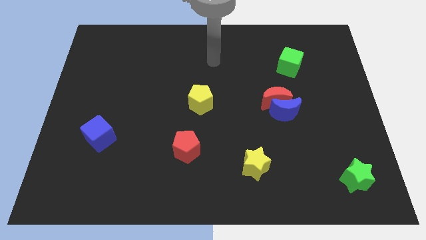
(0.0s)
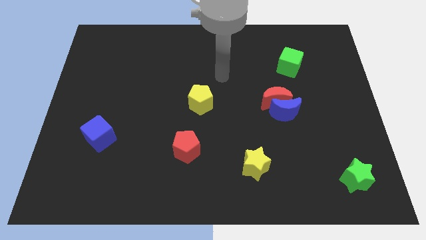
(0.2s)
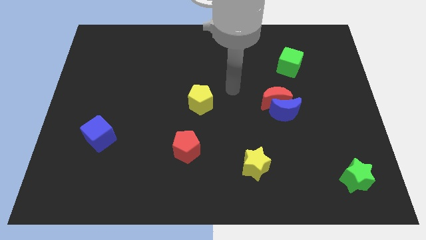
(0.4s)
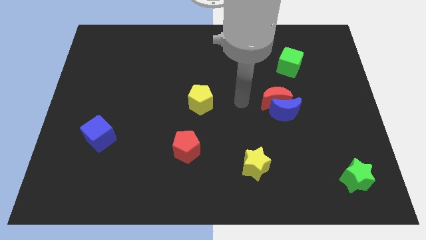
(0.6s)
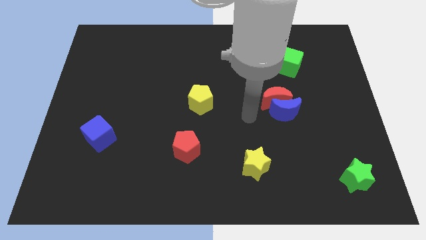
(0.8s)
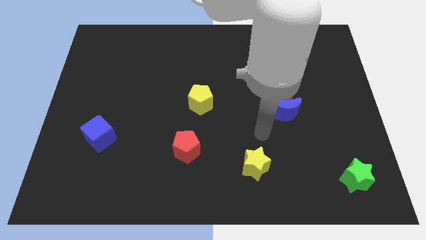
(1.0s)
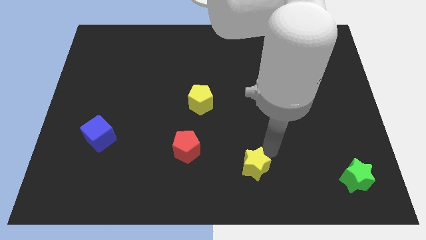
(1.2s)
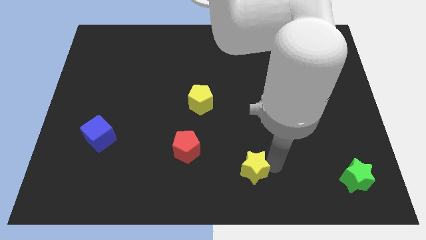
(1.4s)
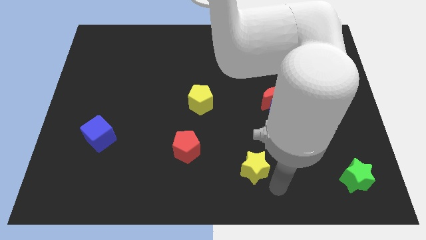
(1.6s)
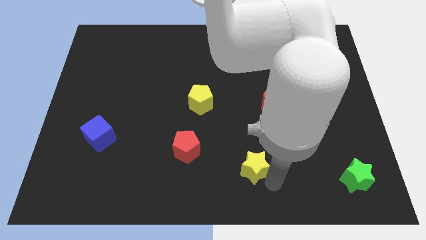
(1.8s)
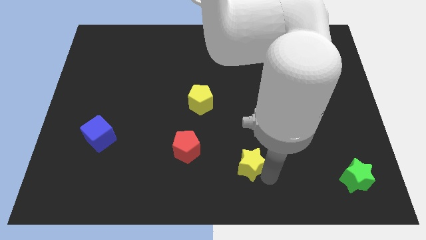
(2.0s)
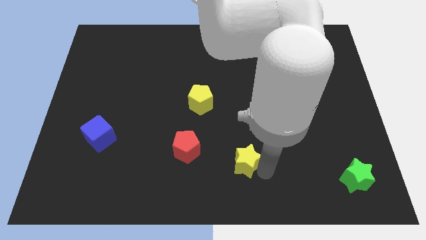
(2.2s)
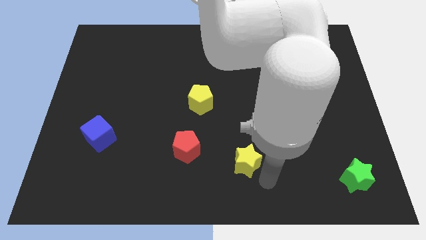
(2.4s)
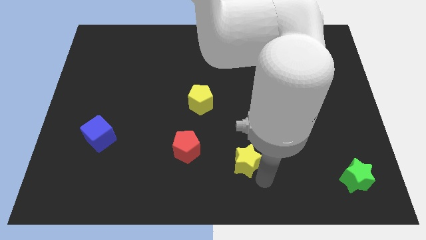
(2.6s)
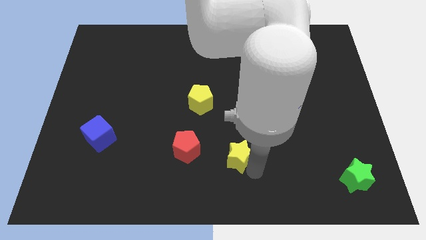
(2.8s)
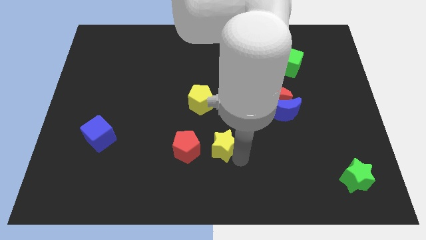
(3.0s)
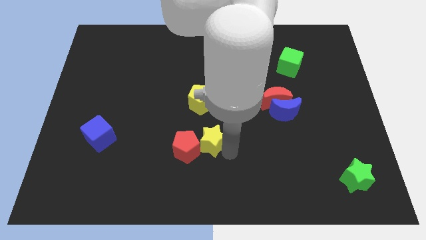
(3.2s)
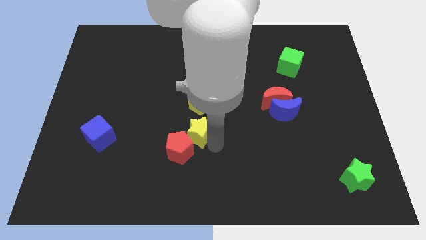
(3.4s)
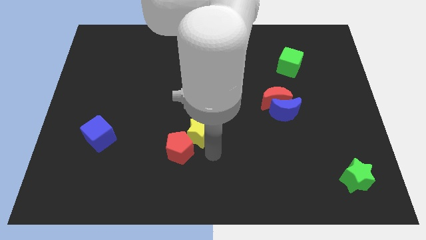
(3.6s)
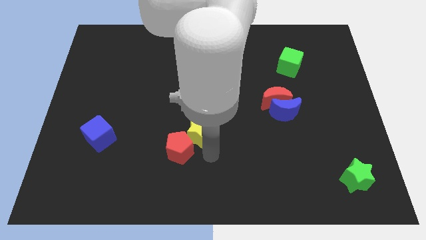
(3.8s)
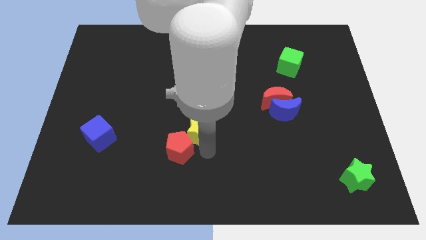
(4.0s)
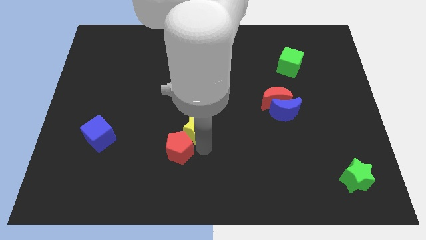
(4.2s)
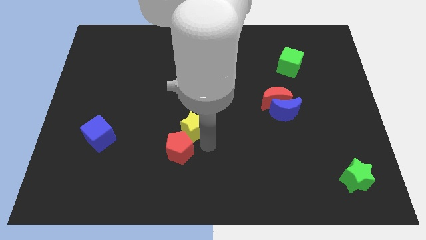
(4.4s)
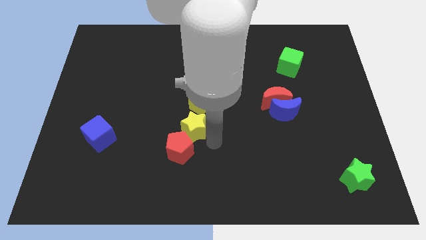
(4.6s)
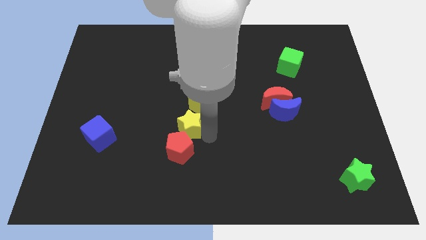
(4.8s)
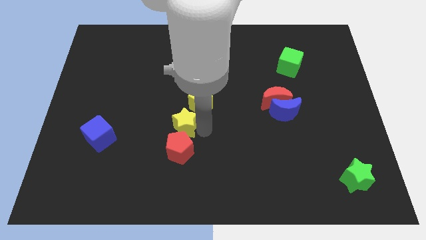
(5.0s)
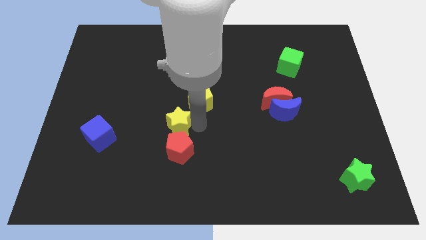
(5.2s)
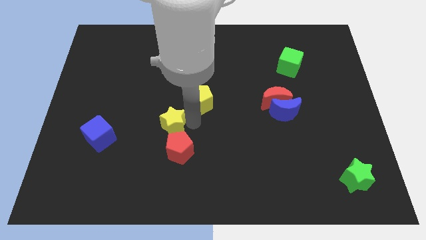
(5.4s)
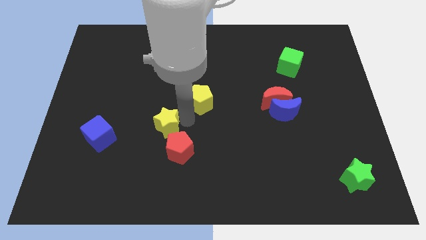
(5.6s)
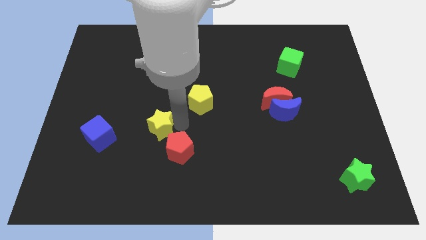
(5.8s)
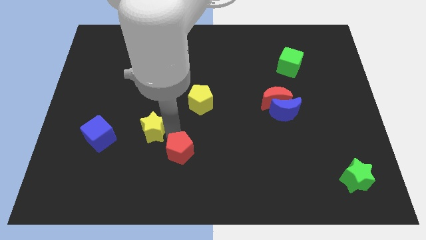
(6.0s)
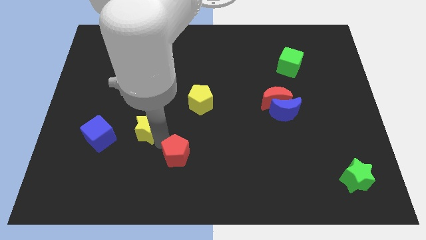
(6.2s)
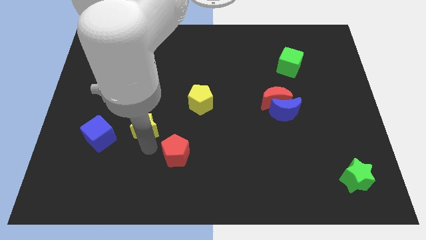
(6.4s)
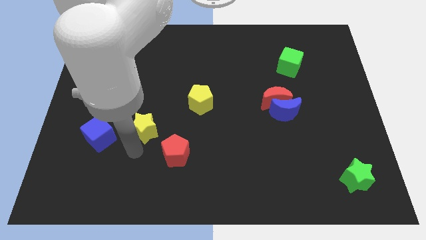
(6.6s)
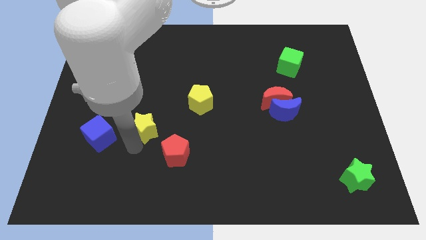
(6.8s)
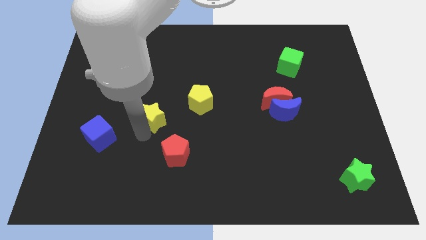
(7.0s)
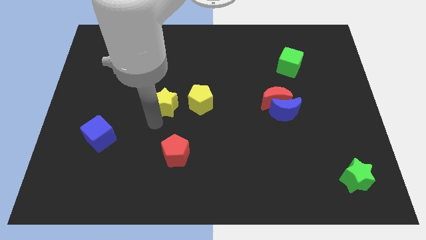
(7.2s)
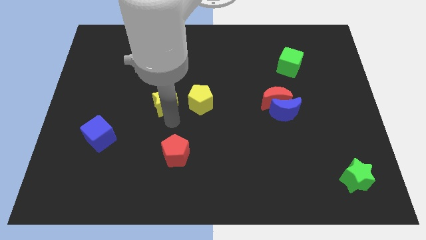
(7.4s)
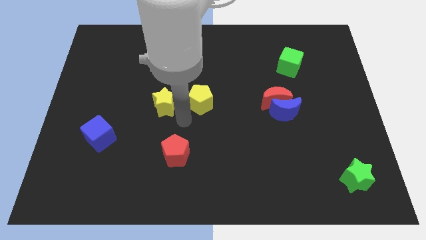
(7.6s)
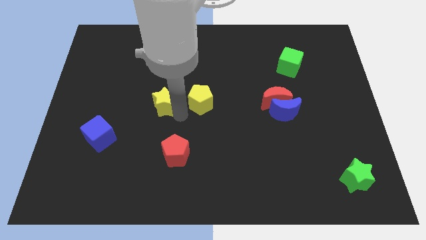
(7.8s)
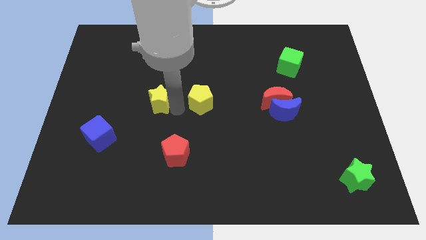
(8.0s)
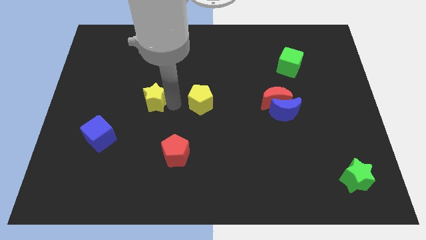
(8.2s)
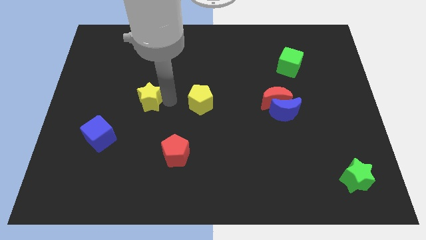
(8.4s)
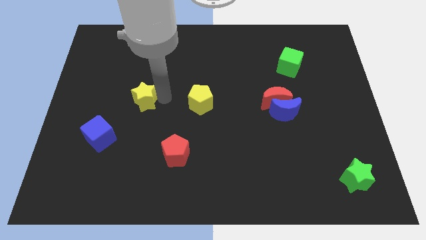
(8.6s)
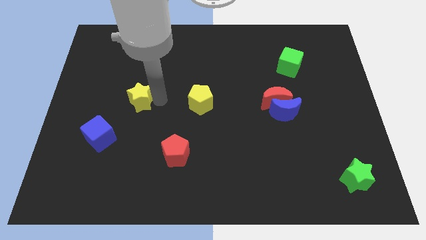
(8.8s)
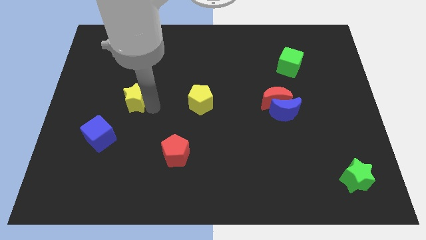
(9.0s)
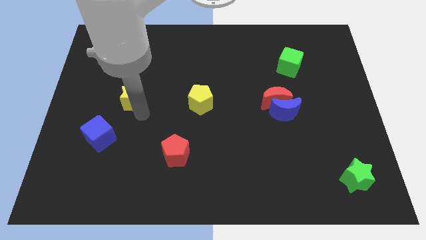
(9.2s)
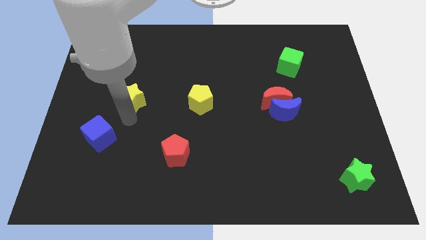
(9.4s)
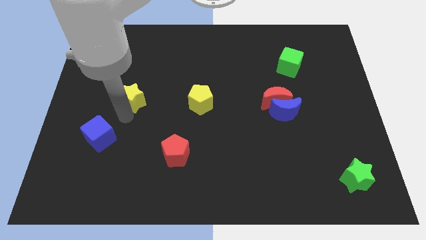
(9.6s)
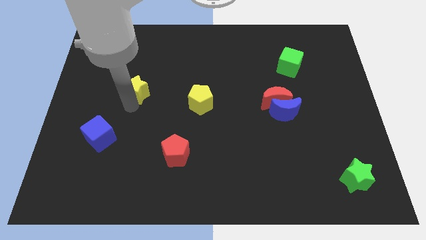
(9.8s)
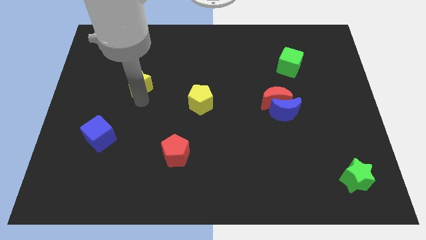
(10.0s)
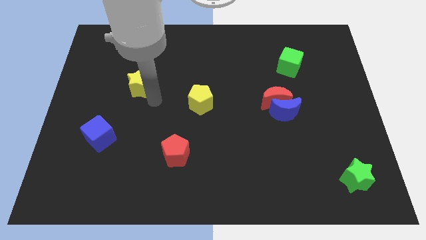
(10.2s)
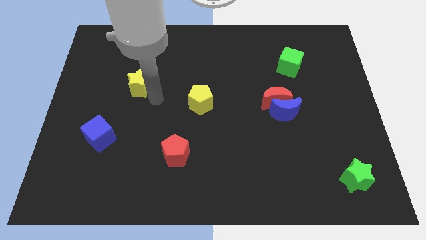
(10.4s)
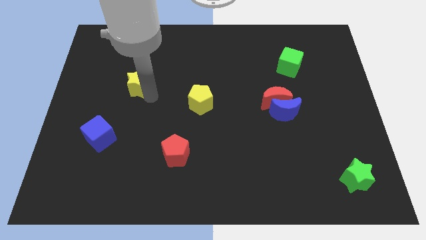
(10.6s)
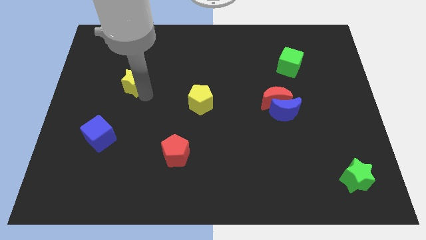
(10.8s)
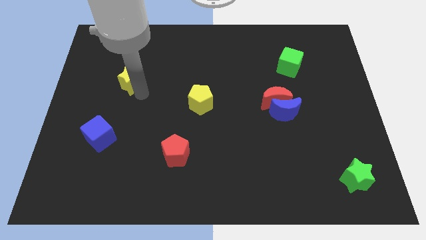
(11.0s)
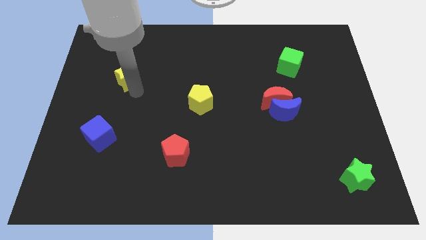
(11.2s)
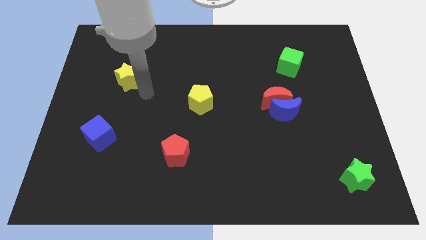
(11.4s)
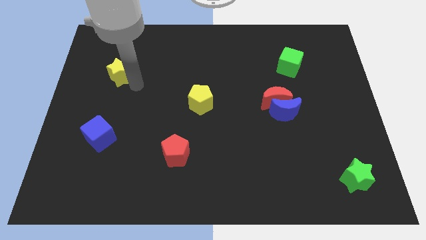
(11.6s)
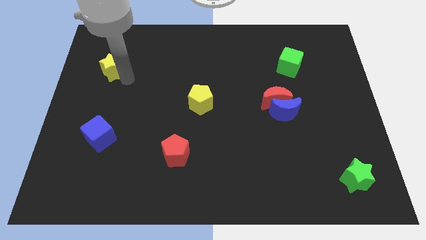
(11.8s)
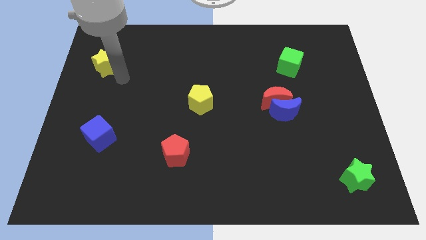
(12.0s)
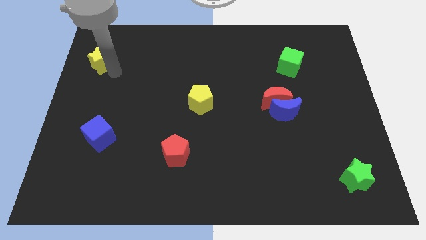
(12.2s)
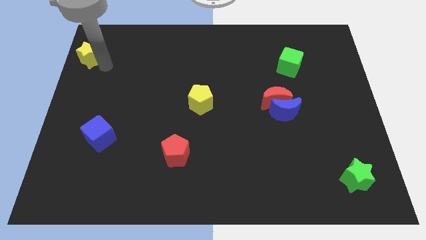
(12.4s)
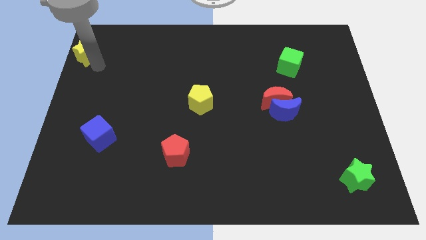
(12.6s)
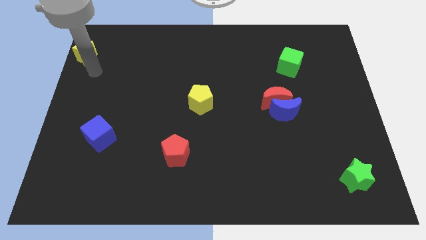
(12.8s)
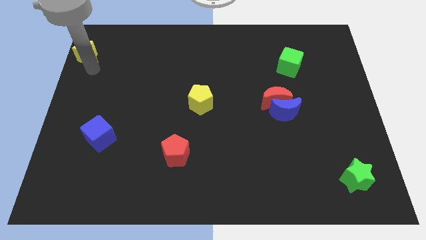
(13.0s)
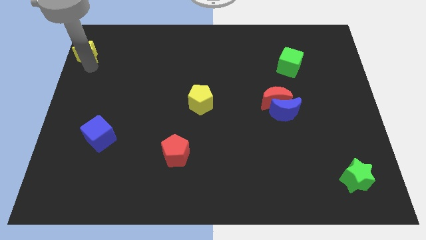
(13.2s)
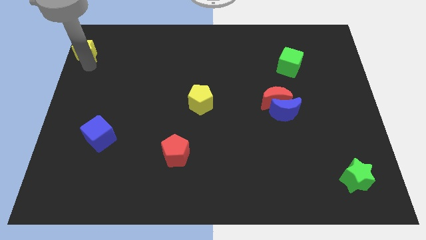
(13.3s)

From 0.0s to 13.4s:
slide the yellow star to the upper left corner
